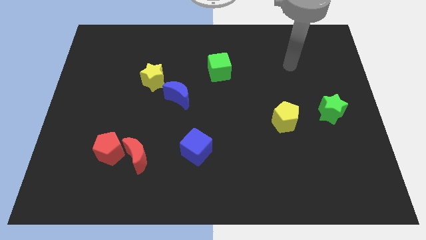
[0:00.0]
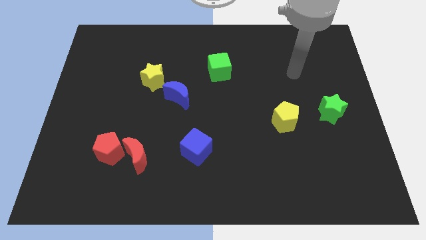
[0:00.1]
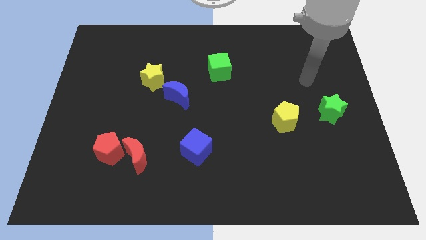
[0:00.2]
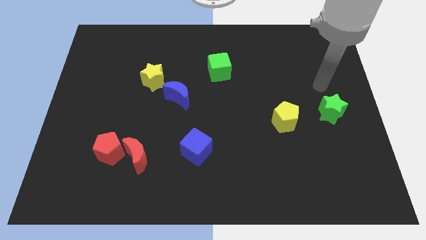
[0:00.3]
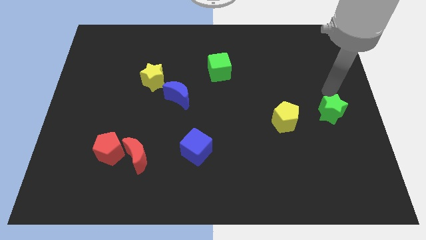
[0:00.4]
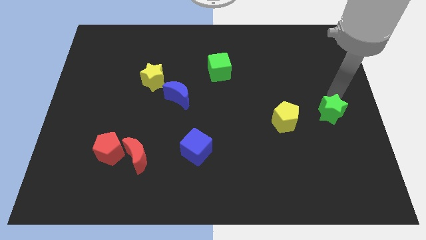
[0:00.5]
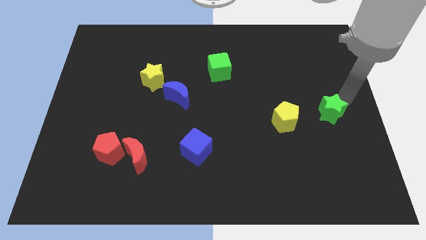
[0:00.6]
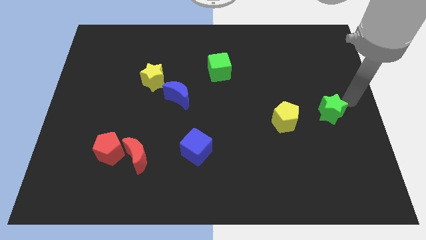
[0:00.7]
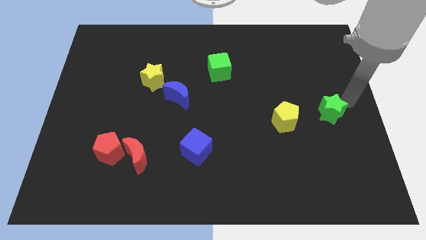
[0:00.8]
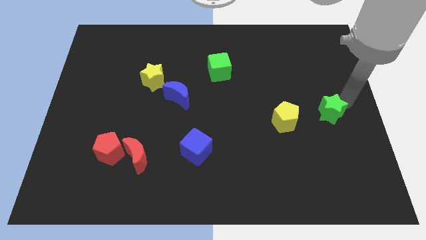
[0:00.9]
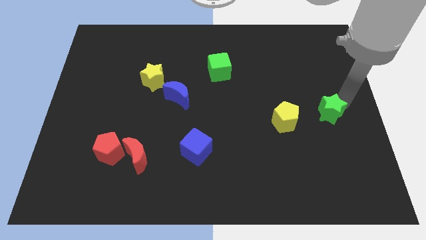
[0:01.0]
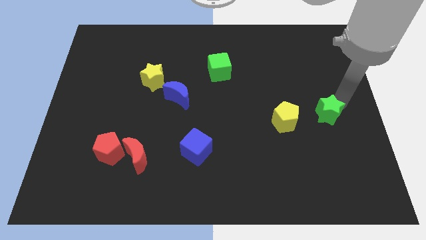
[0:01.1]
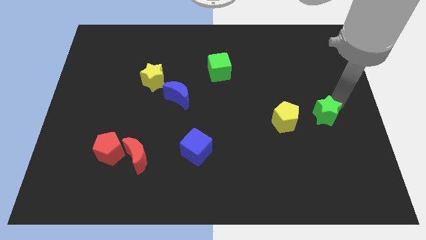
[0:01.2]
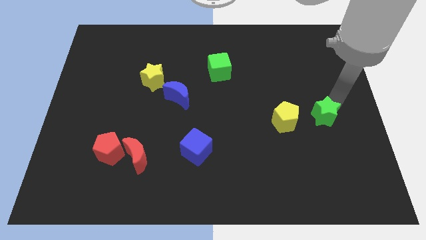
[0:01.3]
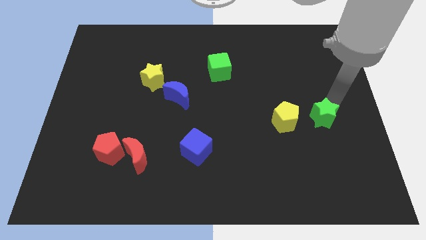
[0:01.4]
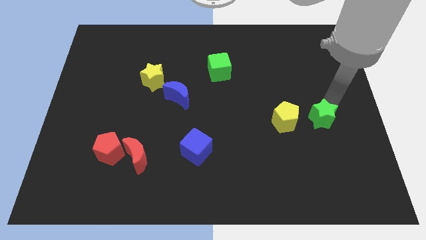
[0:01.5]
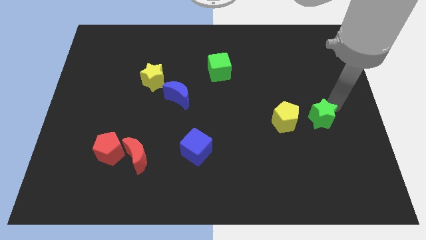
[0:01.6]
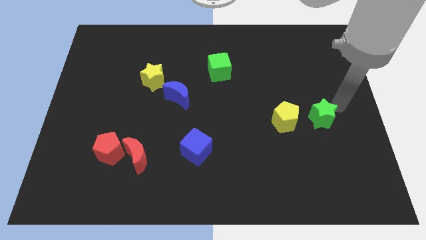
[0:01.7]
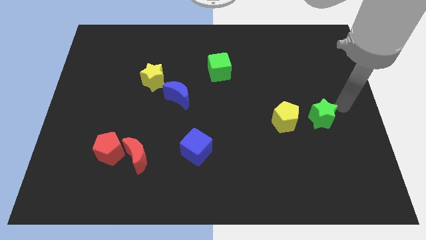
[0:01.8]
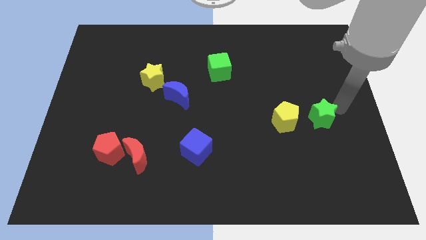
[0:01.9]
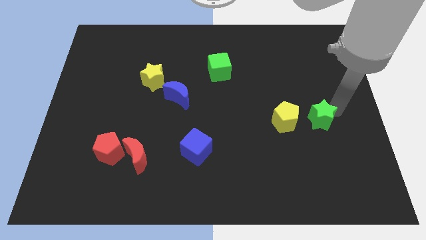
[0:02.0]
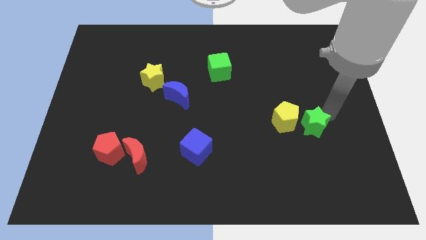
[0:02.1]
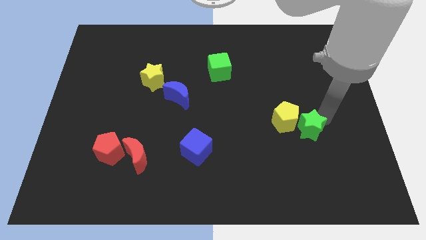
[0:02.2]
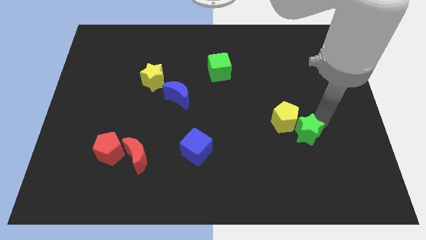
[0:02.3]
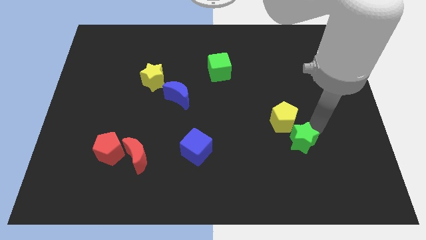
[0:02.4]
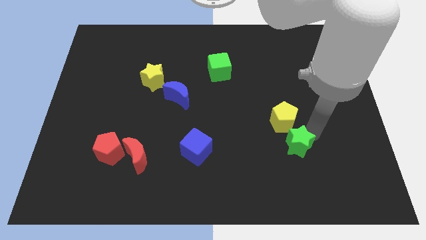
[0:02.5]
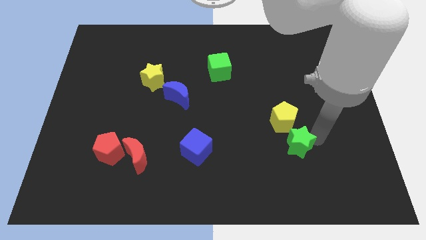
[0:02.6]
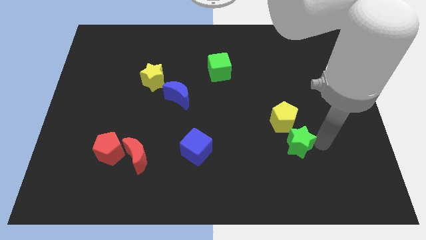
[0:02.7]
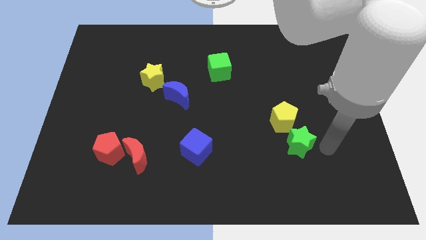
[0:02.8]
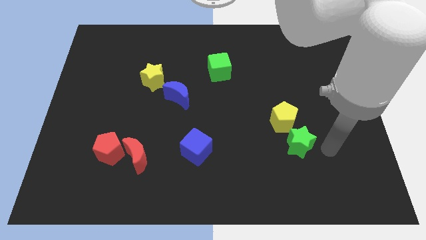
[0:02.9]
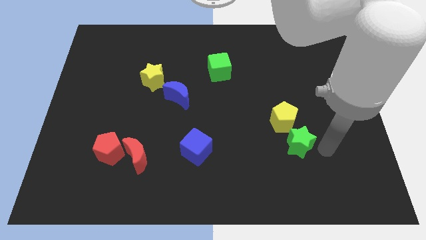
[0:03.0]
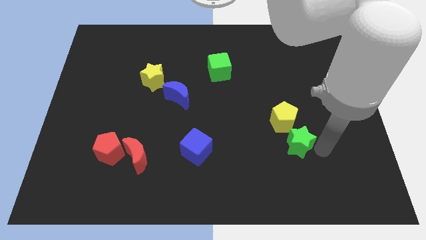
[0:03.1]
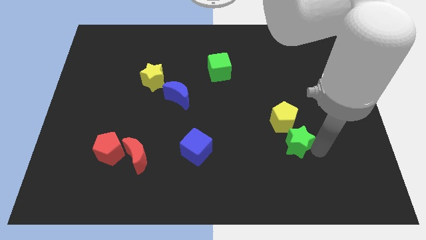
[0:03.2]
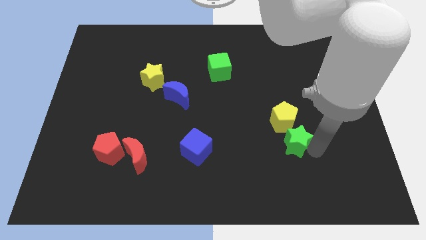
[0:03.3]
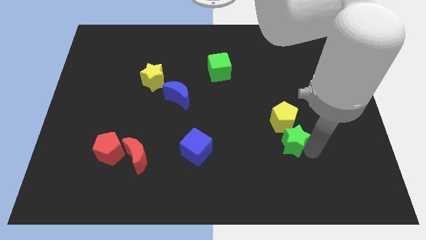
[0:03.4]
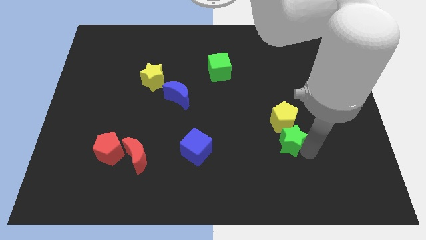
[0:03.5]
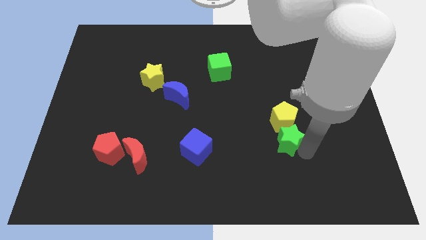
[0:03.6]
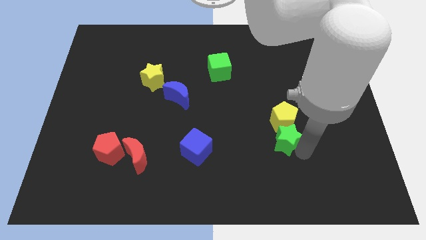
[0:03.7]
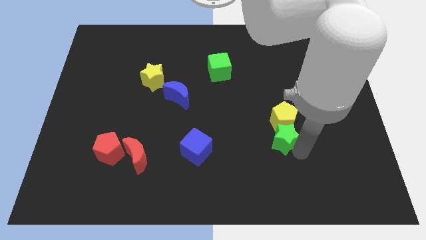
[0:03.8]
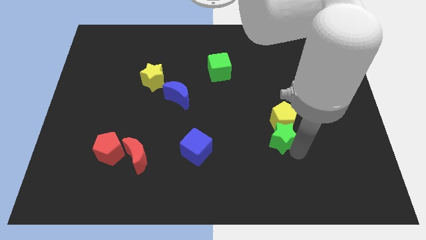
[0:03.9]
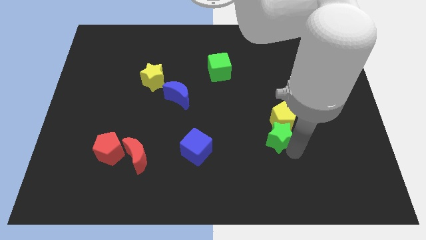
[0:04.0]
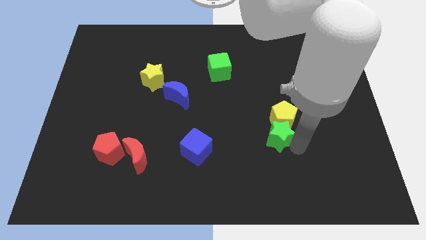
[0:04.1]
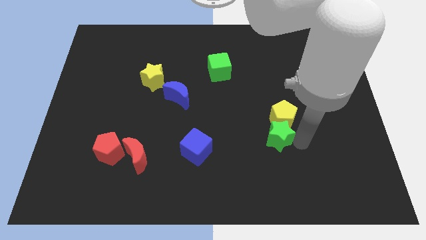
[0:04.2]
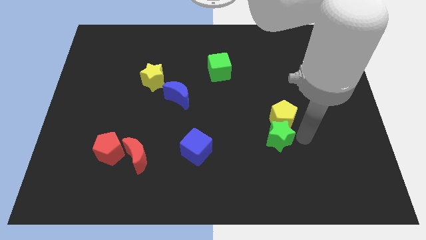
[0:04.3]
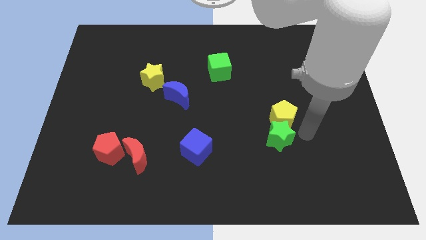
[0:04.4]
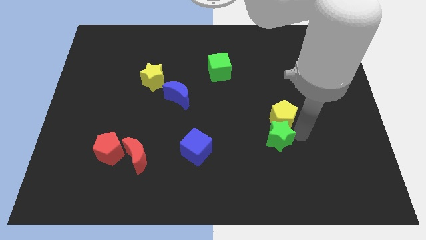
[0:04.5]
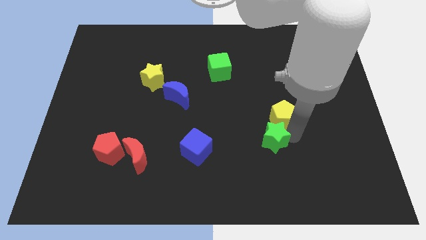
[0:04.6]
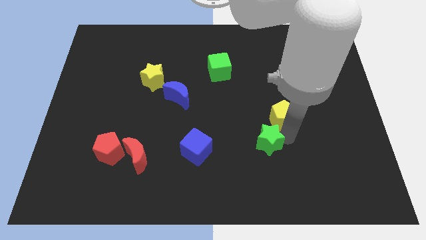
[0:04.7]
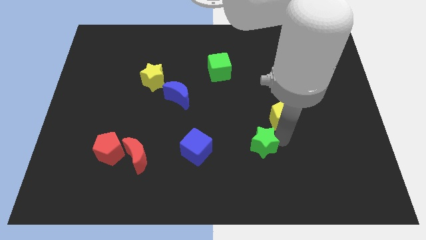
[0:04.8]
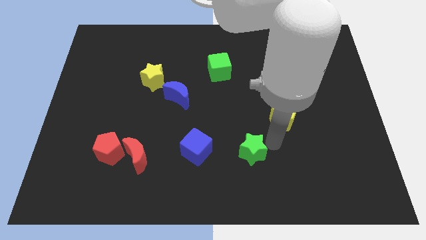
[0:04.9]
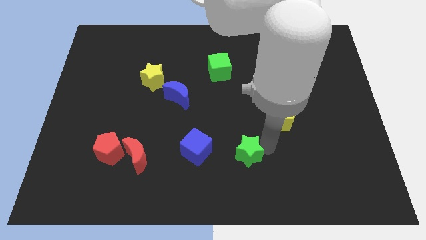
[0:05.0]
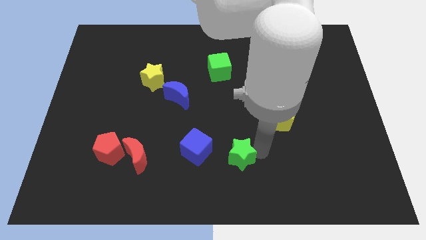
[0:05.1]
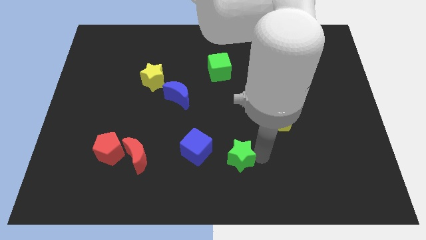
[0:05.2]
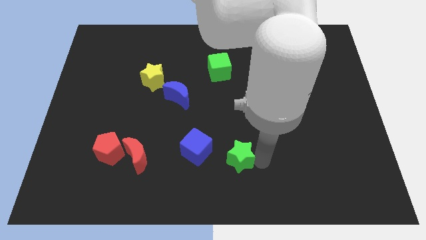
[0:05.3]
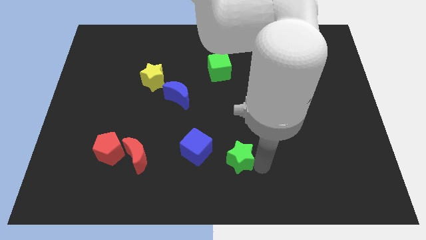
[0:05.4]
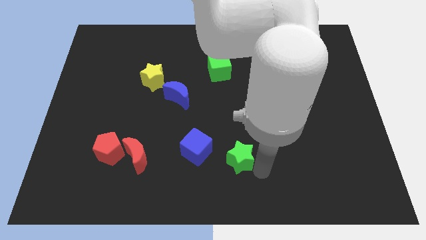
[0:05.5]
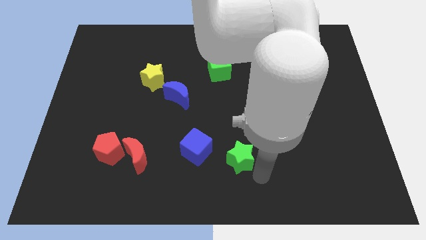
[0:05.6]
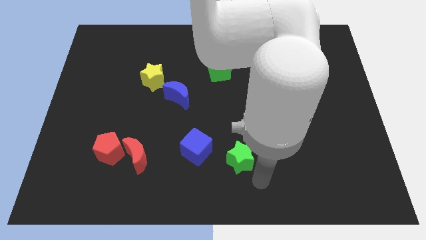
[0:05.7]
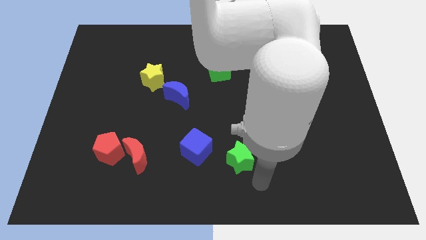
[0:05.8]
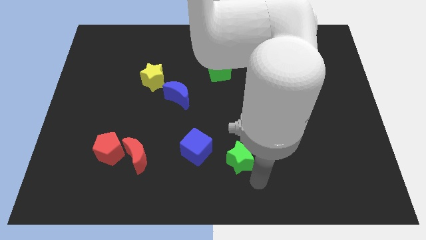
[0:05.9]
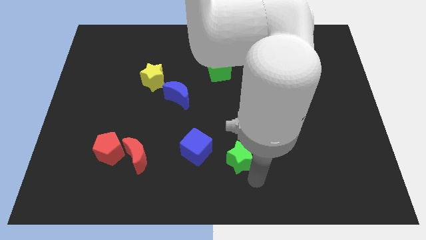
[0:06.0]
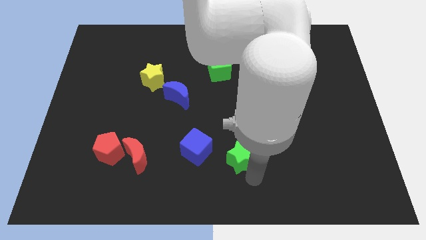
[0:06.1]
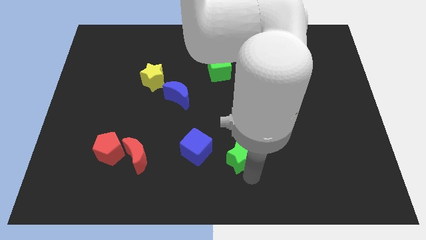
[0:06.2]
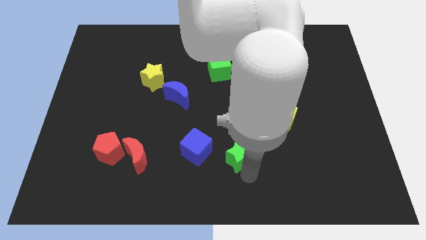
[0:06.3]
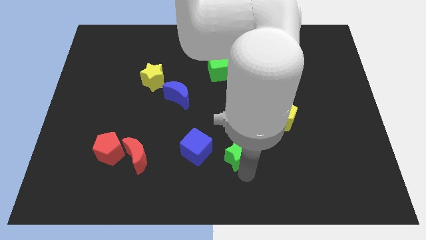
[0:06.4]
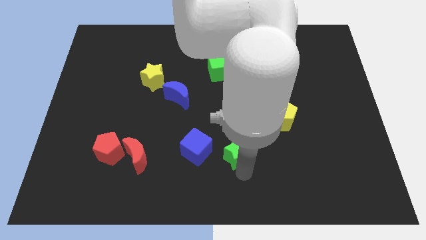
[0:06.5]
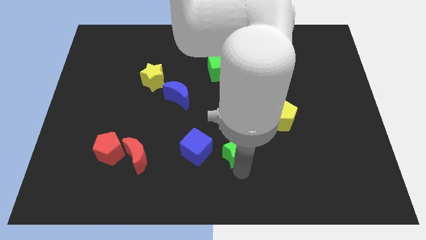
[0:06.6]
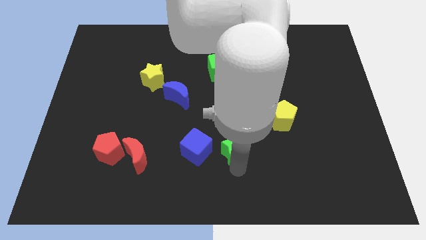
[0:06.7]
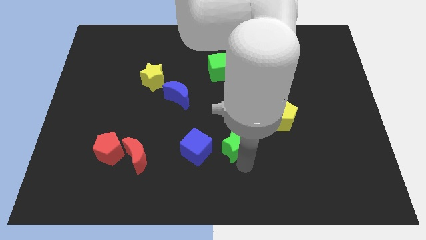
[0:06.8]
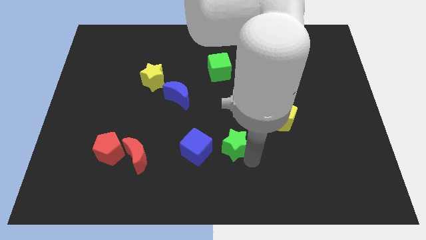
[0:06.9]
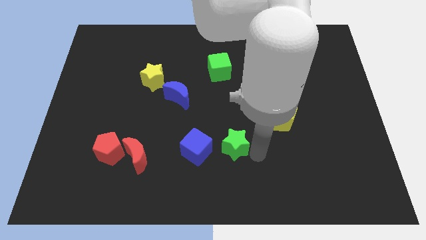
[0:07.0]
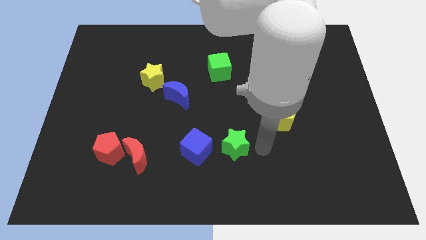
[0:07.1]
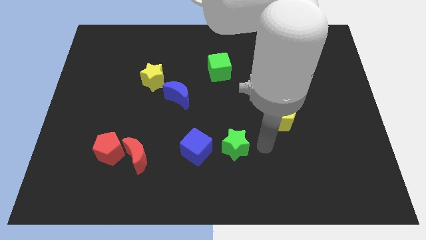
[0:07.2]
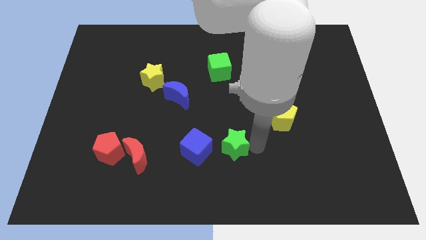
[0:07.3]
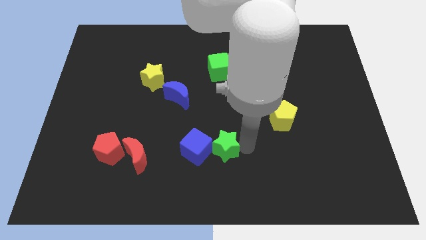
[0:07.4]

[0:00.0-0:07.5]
push the green star next to the blue cube
